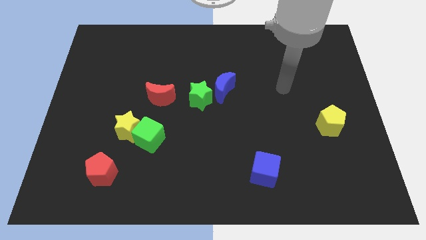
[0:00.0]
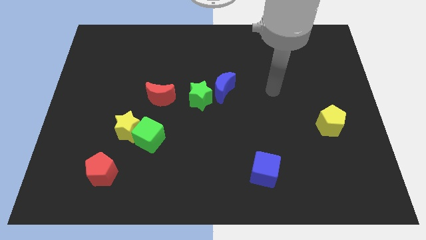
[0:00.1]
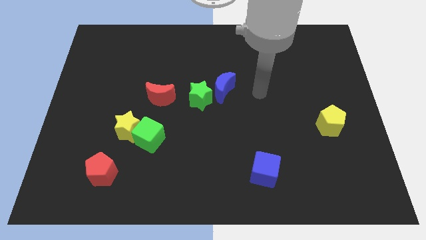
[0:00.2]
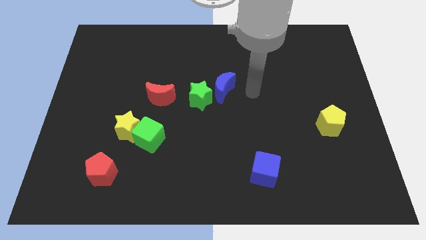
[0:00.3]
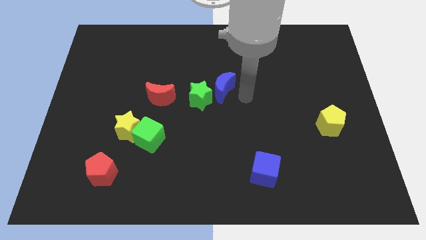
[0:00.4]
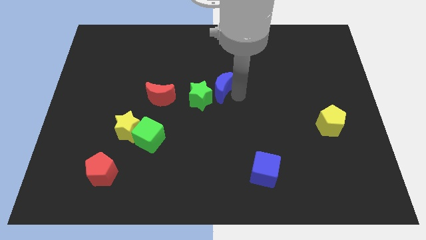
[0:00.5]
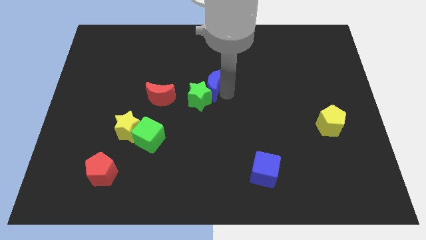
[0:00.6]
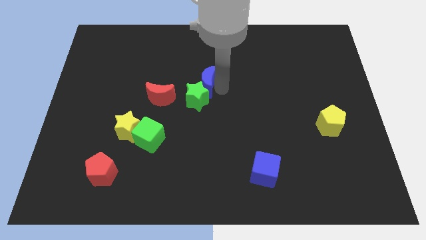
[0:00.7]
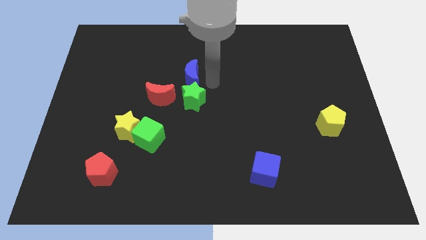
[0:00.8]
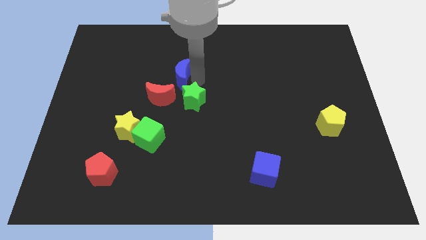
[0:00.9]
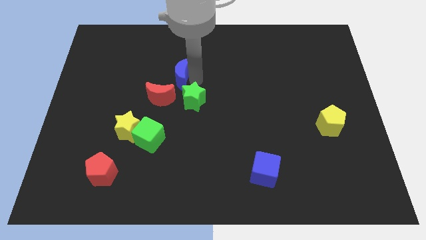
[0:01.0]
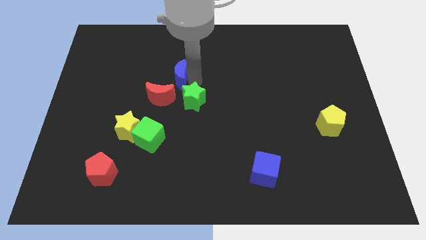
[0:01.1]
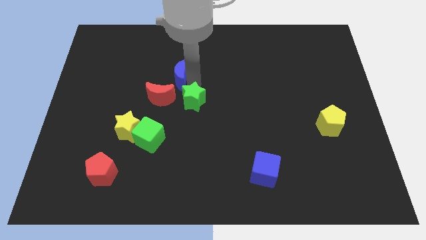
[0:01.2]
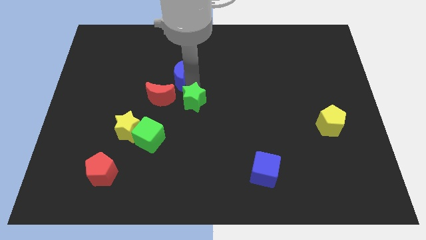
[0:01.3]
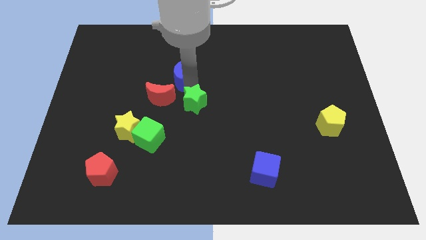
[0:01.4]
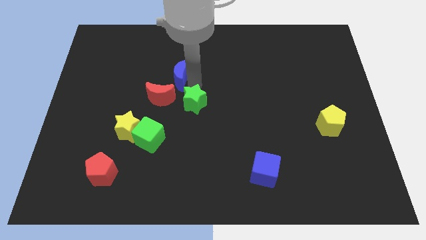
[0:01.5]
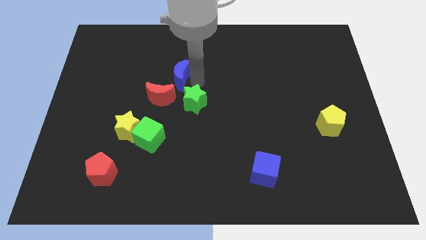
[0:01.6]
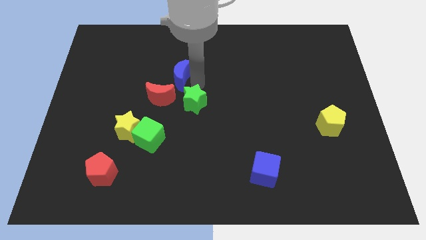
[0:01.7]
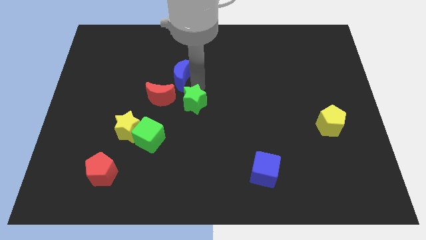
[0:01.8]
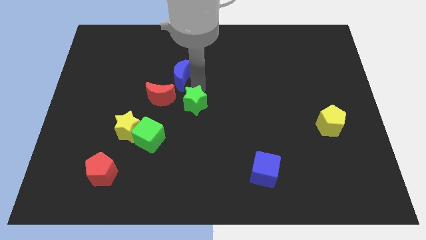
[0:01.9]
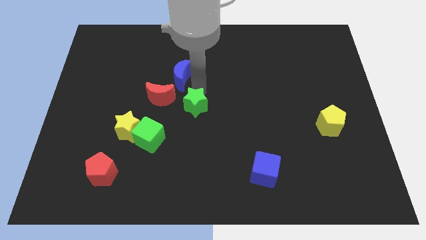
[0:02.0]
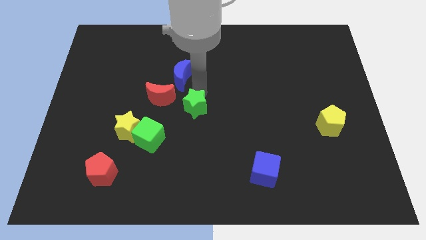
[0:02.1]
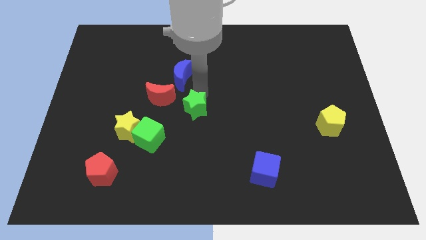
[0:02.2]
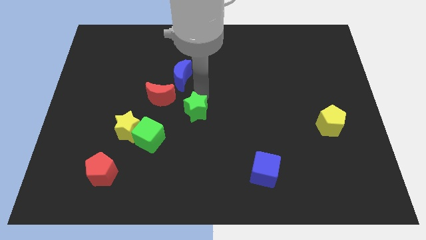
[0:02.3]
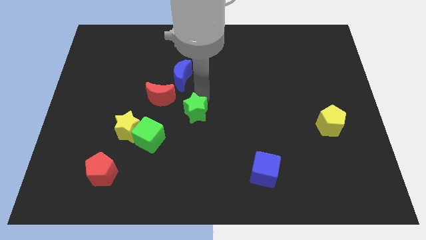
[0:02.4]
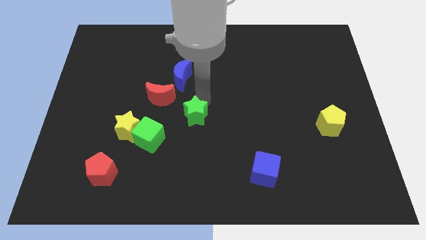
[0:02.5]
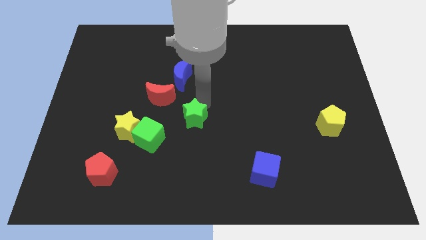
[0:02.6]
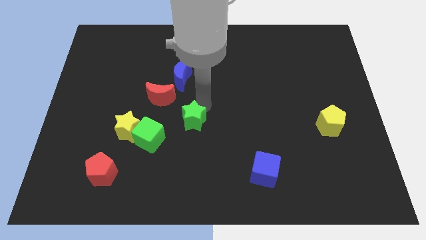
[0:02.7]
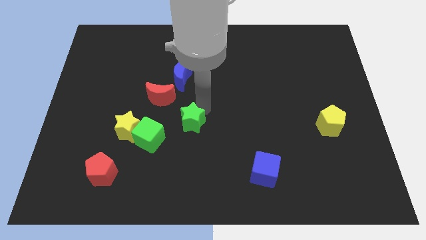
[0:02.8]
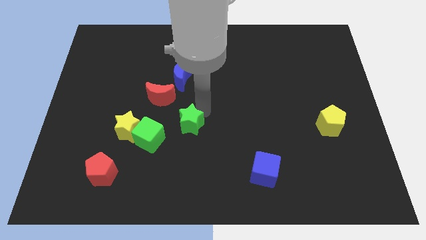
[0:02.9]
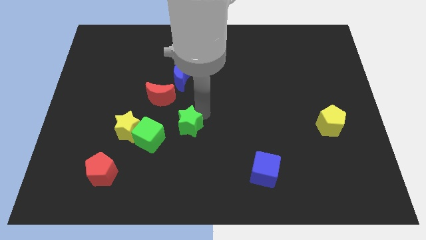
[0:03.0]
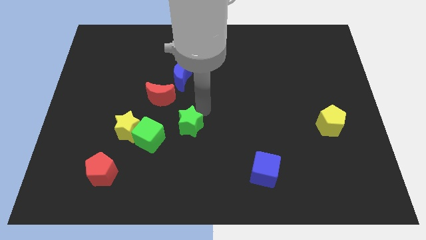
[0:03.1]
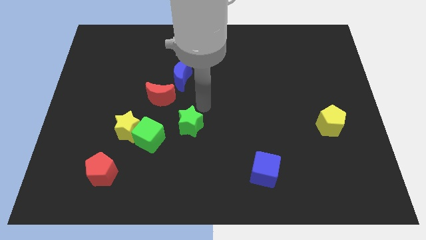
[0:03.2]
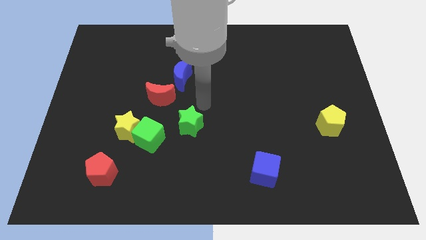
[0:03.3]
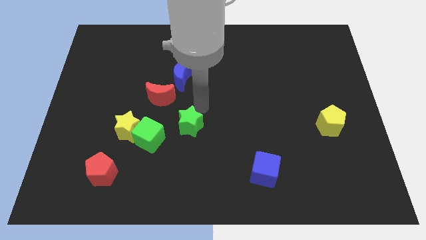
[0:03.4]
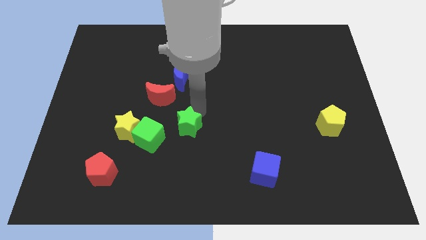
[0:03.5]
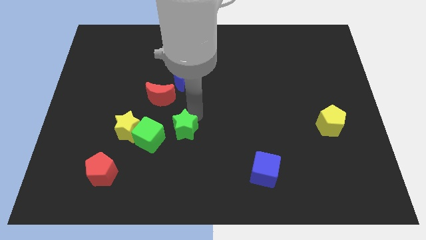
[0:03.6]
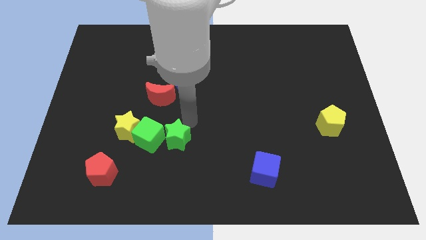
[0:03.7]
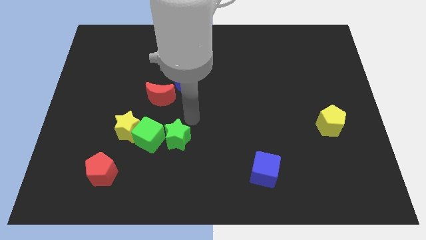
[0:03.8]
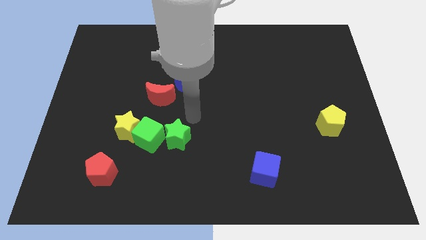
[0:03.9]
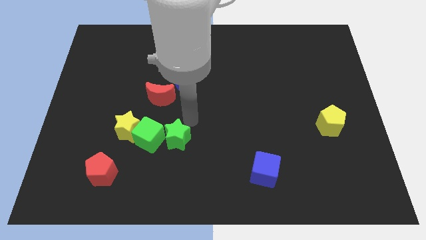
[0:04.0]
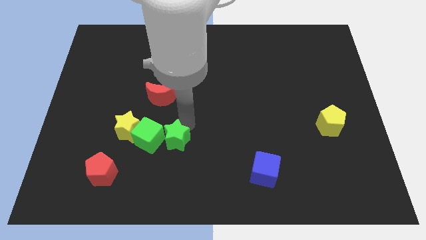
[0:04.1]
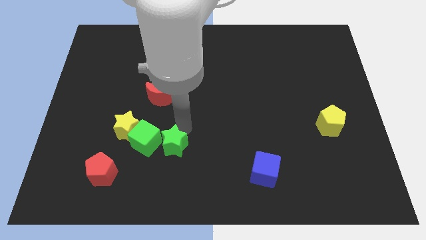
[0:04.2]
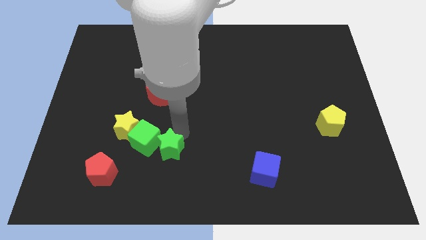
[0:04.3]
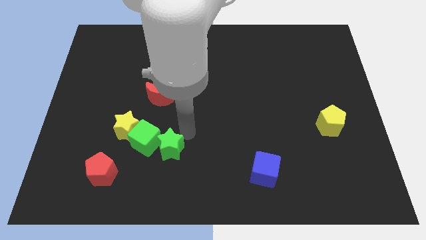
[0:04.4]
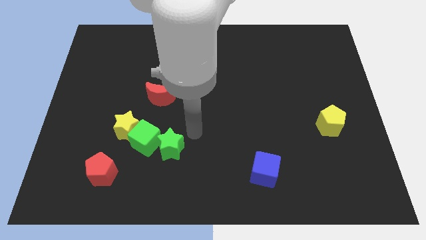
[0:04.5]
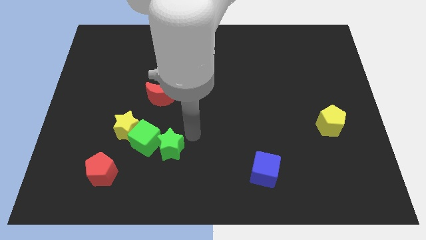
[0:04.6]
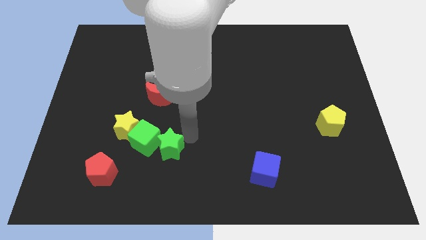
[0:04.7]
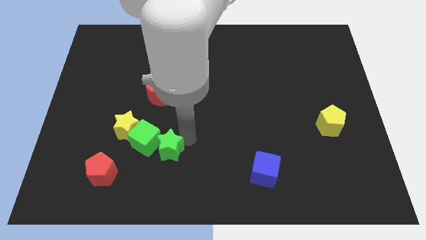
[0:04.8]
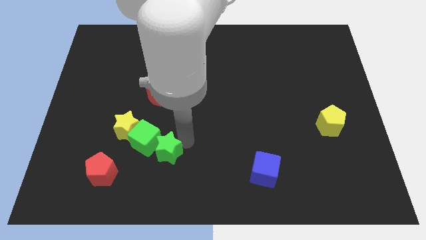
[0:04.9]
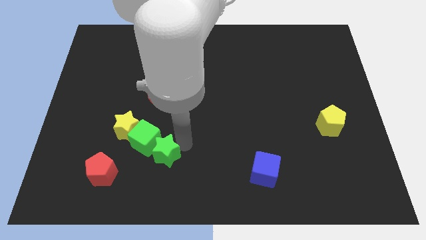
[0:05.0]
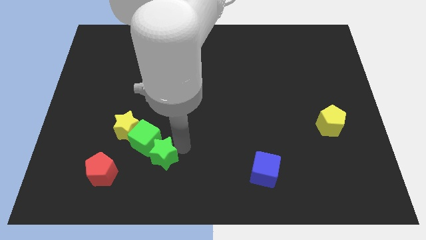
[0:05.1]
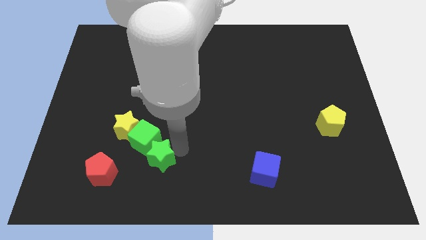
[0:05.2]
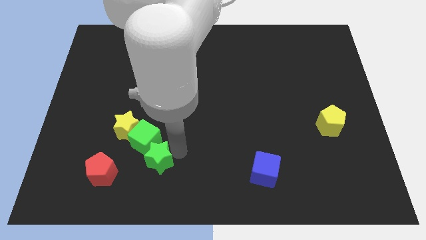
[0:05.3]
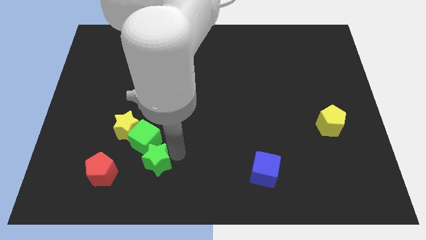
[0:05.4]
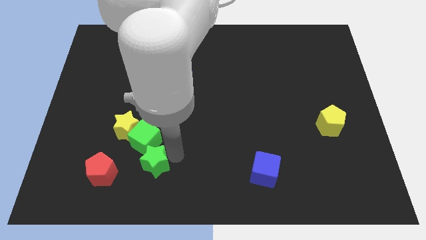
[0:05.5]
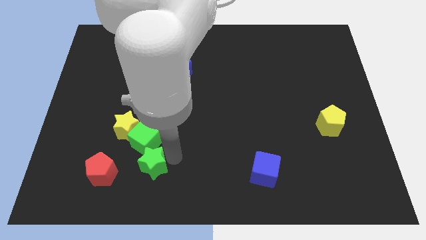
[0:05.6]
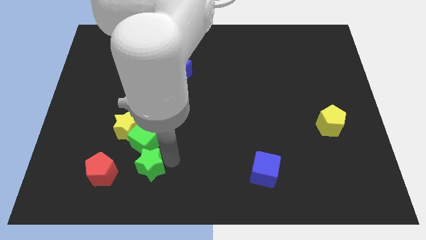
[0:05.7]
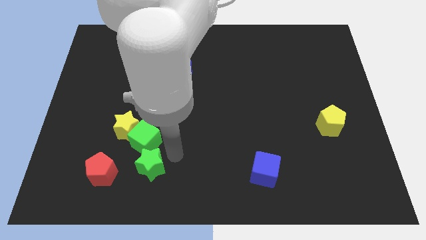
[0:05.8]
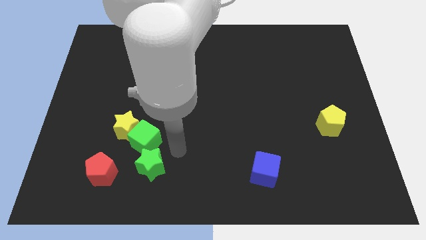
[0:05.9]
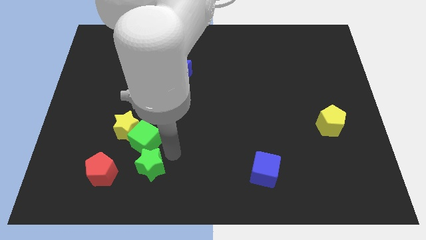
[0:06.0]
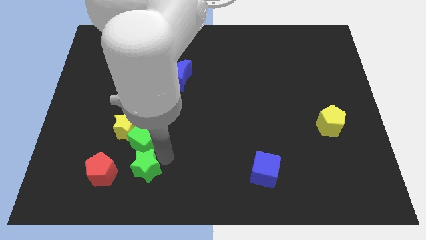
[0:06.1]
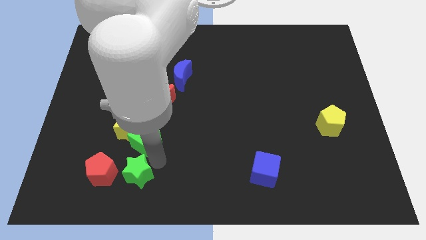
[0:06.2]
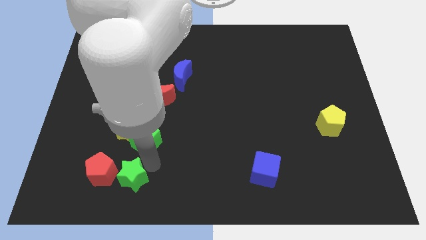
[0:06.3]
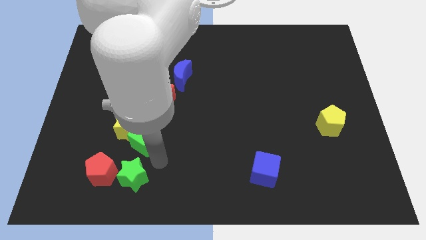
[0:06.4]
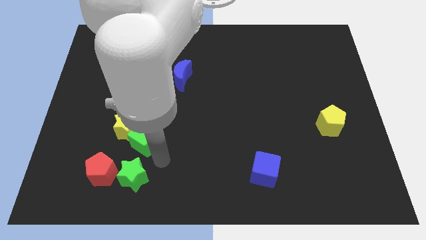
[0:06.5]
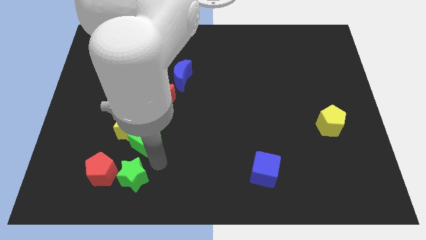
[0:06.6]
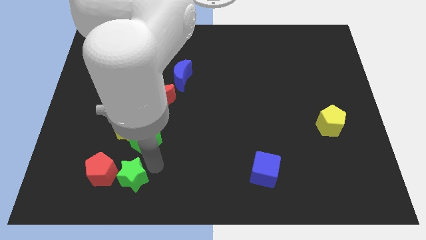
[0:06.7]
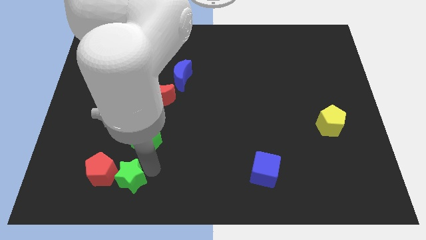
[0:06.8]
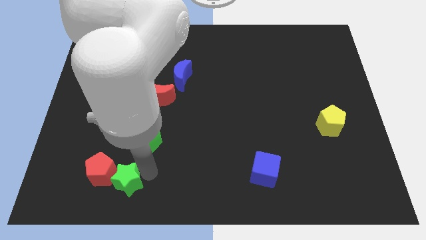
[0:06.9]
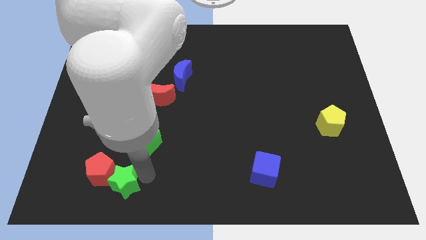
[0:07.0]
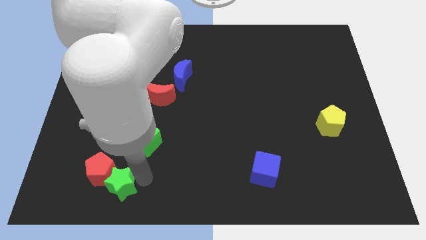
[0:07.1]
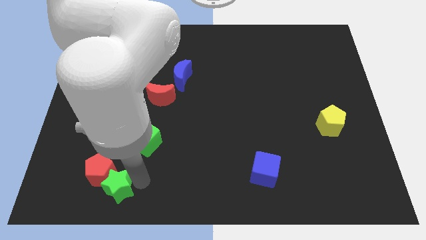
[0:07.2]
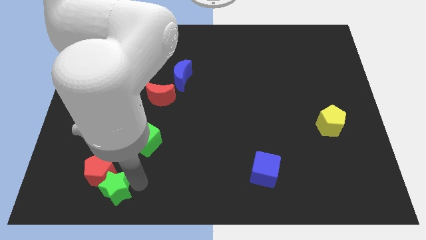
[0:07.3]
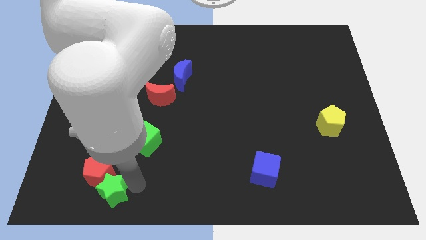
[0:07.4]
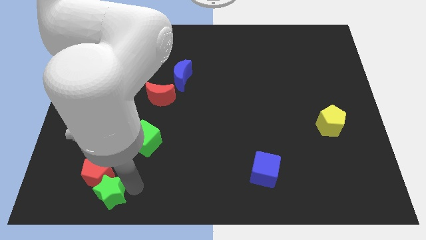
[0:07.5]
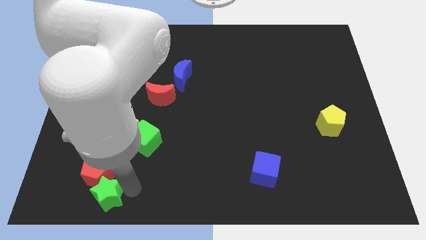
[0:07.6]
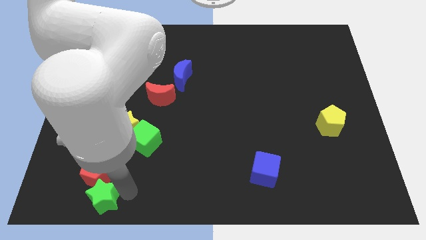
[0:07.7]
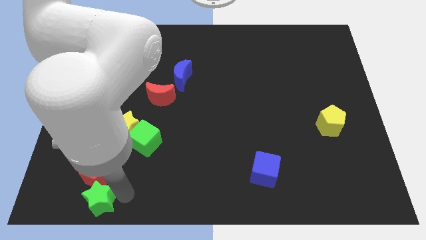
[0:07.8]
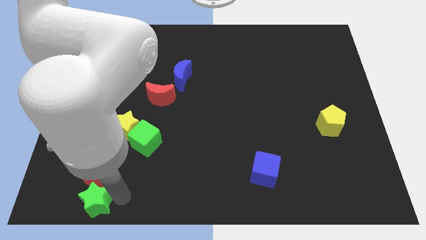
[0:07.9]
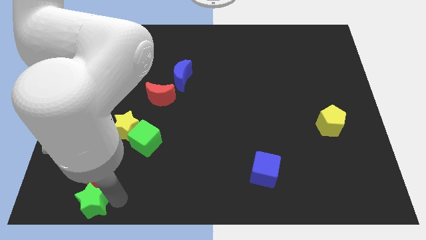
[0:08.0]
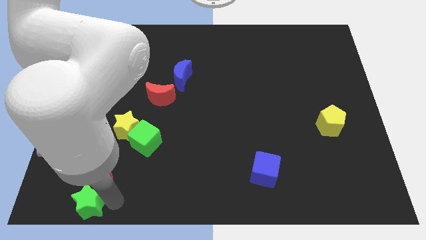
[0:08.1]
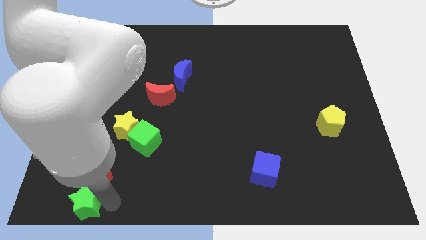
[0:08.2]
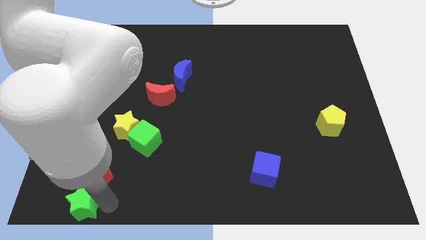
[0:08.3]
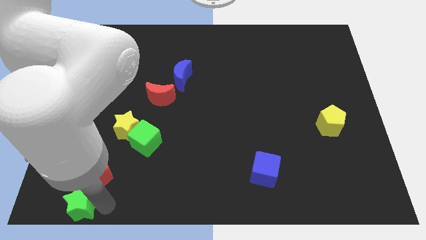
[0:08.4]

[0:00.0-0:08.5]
move the green star to the lower left corner
